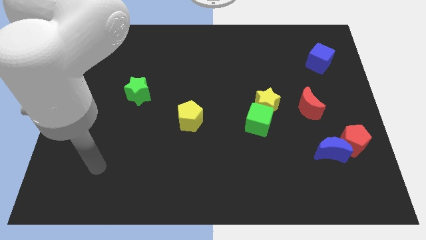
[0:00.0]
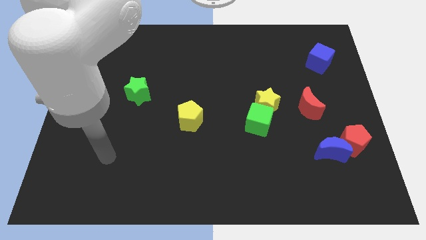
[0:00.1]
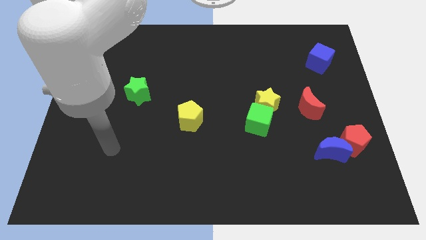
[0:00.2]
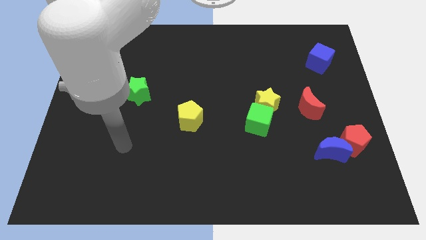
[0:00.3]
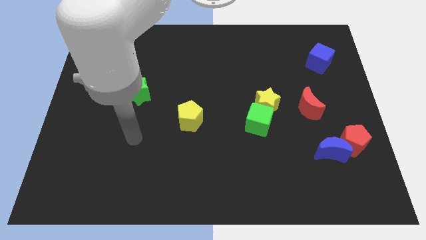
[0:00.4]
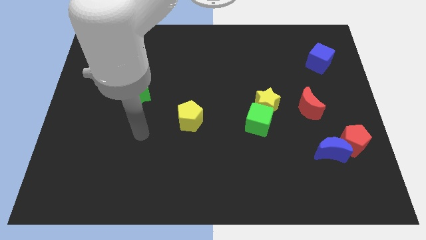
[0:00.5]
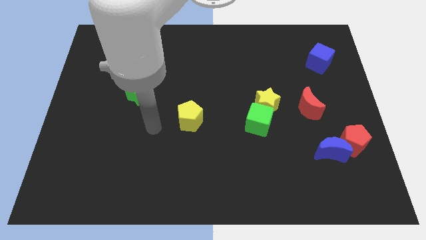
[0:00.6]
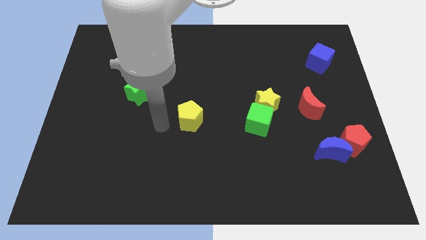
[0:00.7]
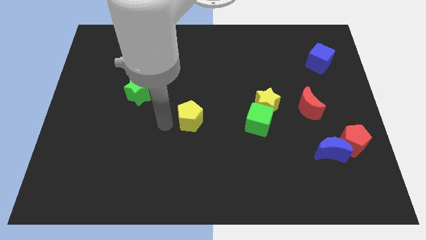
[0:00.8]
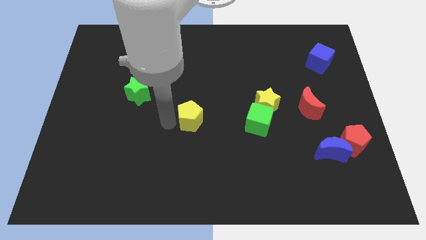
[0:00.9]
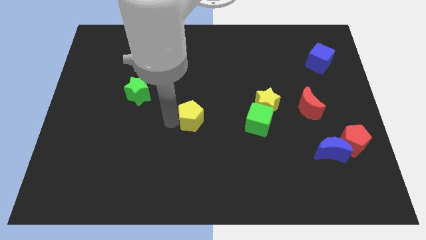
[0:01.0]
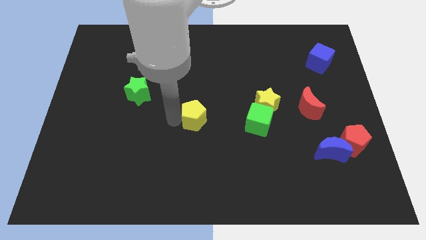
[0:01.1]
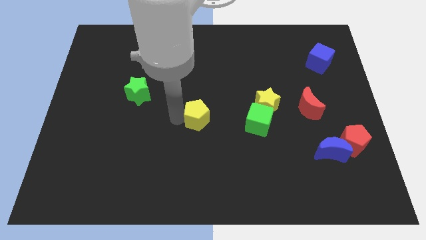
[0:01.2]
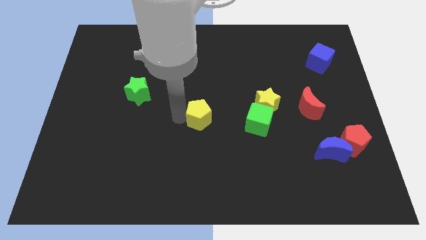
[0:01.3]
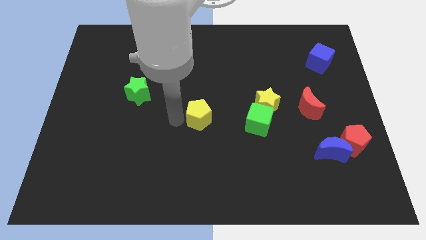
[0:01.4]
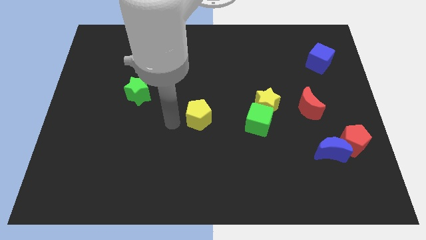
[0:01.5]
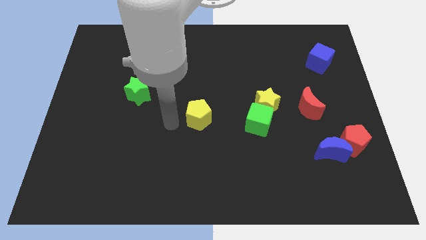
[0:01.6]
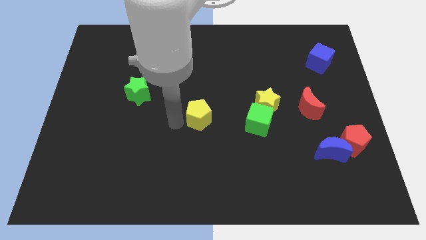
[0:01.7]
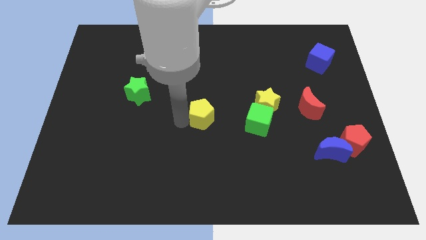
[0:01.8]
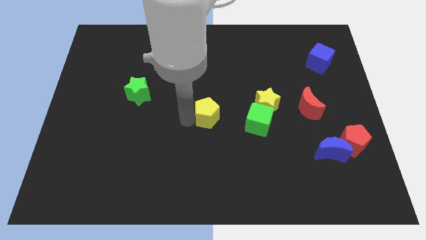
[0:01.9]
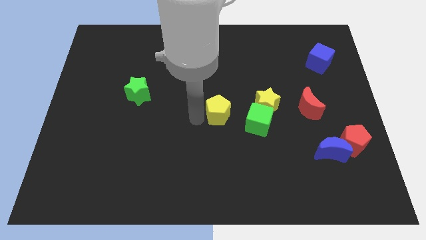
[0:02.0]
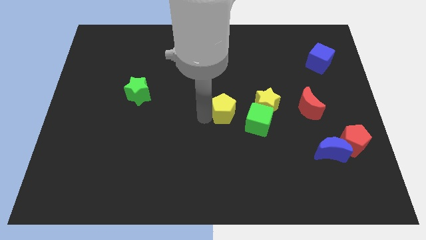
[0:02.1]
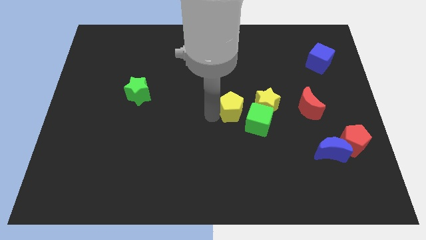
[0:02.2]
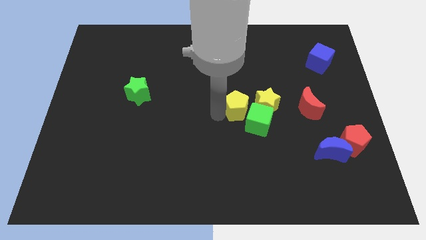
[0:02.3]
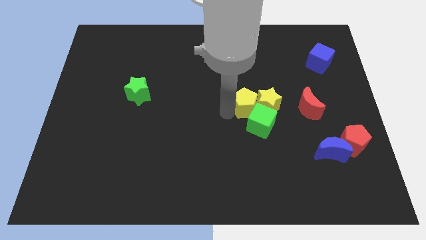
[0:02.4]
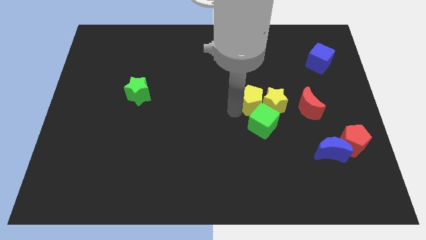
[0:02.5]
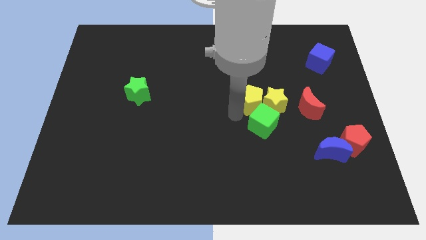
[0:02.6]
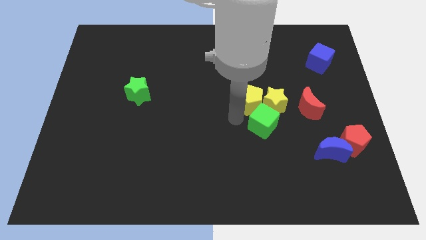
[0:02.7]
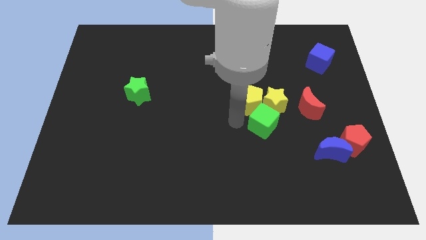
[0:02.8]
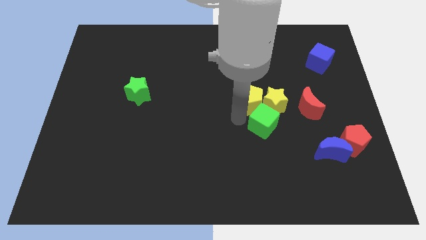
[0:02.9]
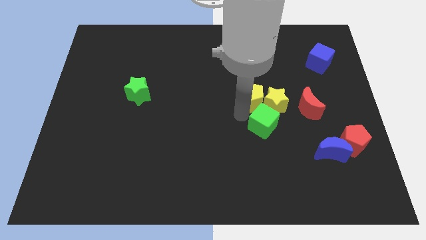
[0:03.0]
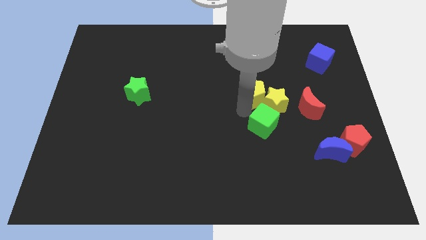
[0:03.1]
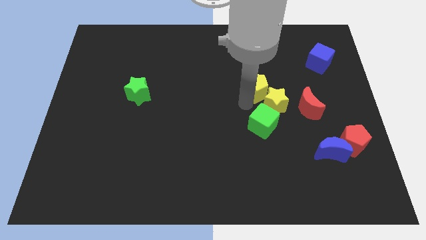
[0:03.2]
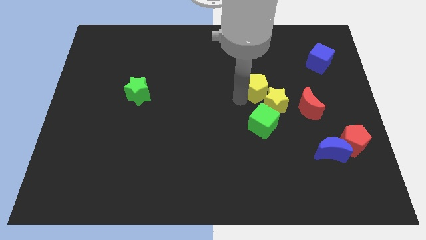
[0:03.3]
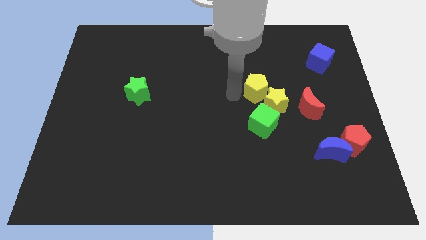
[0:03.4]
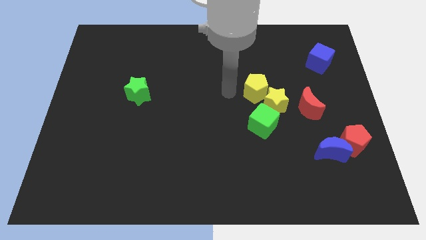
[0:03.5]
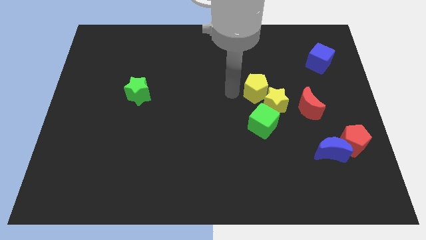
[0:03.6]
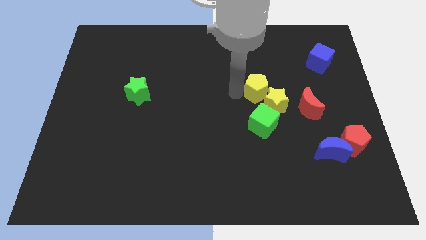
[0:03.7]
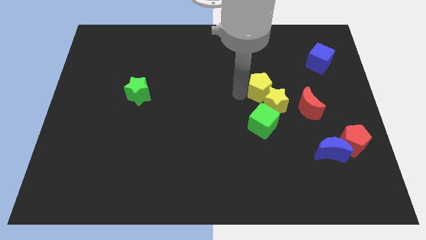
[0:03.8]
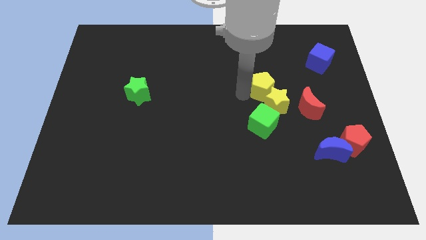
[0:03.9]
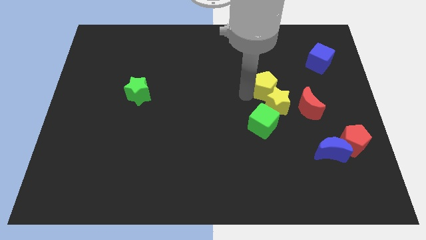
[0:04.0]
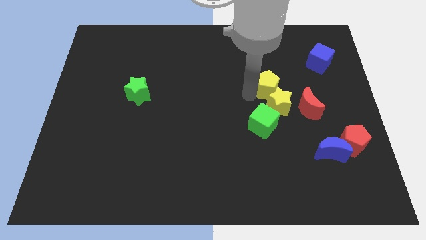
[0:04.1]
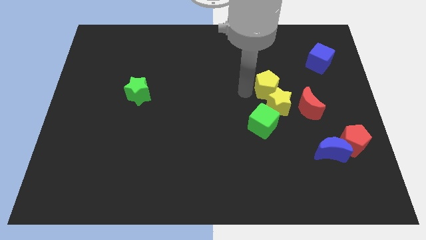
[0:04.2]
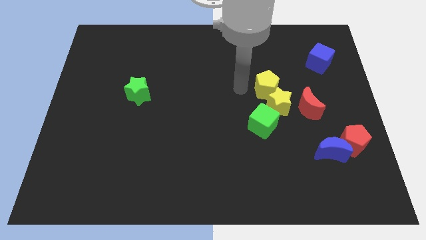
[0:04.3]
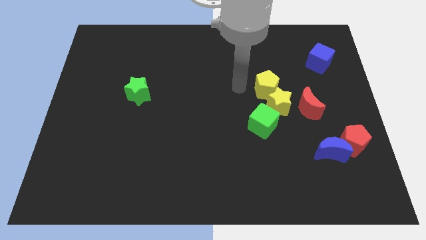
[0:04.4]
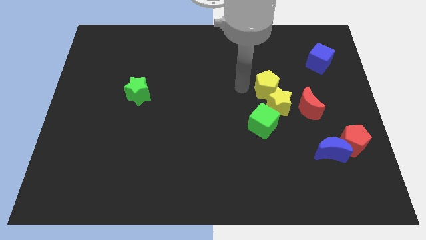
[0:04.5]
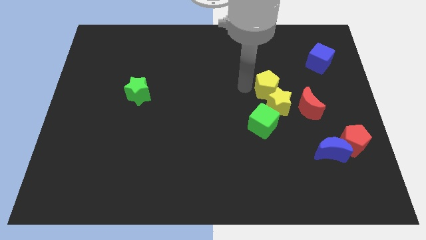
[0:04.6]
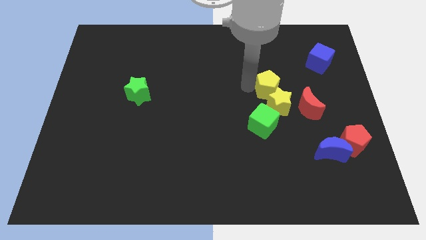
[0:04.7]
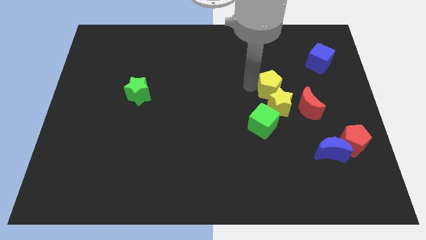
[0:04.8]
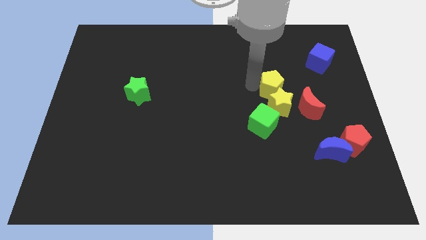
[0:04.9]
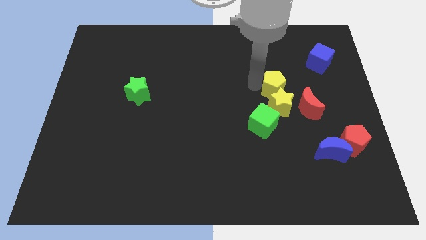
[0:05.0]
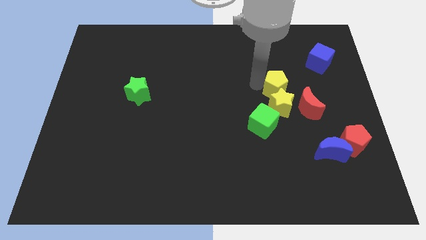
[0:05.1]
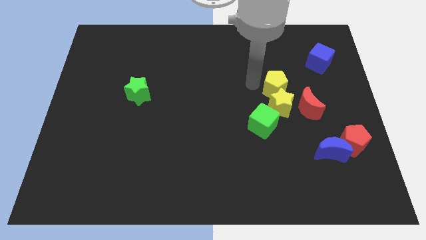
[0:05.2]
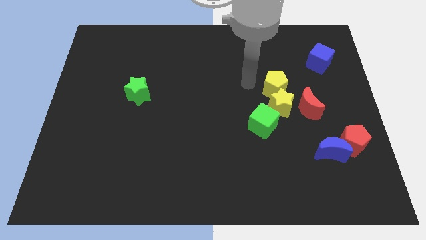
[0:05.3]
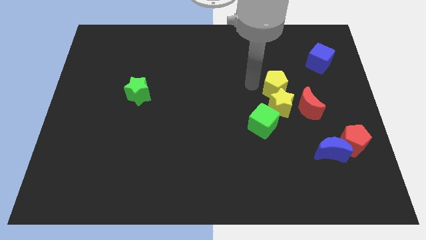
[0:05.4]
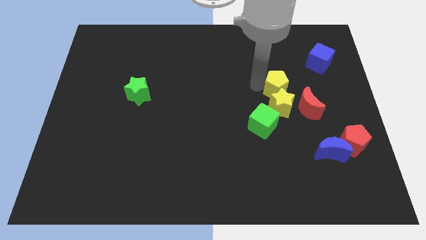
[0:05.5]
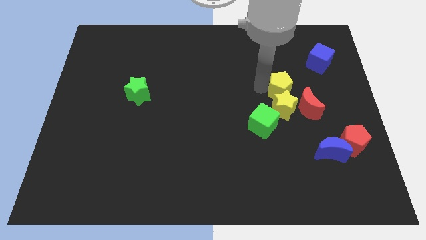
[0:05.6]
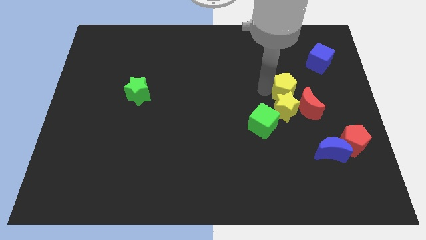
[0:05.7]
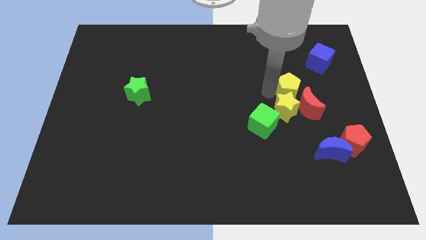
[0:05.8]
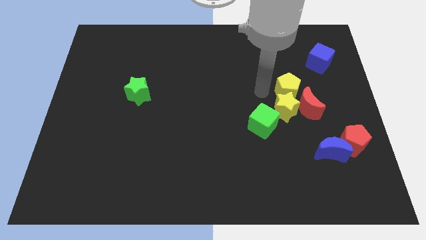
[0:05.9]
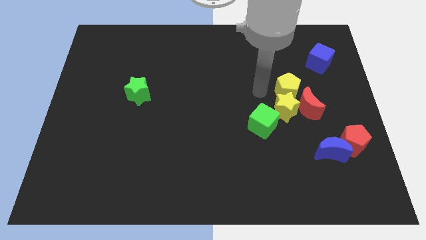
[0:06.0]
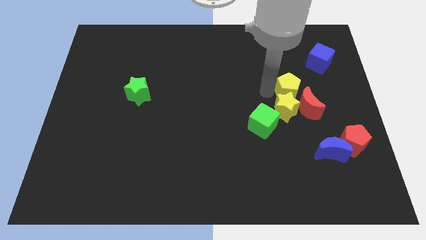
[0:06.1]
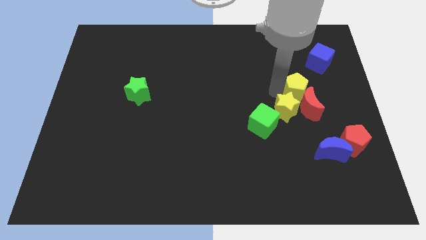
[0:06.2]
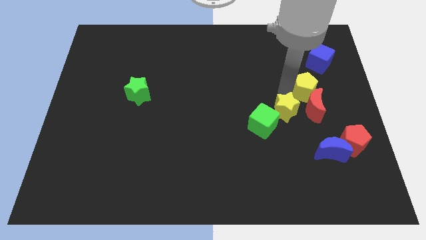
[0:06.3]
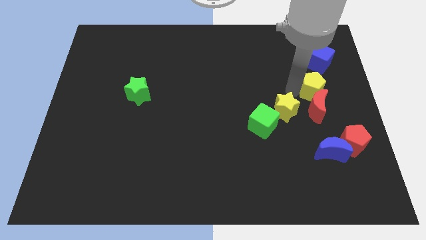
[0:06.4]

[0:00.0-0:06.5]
slide the yellow pentagon diagonally up and to the right of the red moon

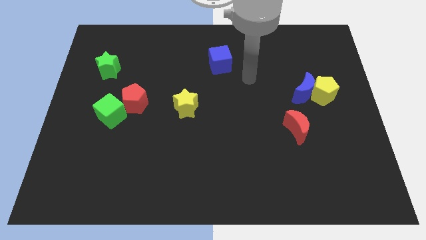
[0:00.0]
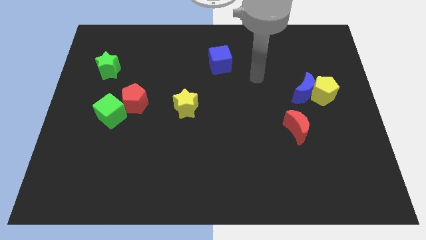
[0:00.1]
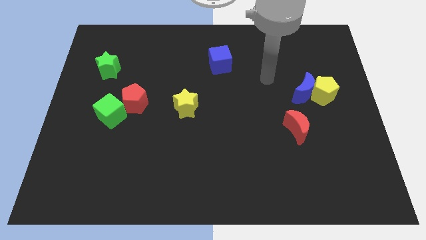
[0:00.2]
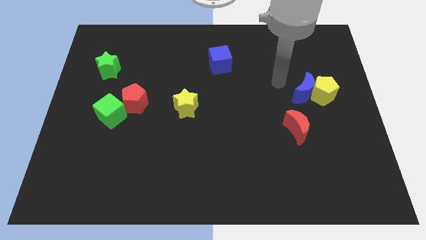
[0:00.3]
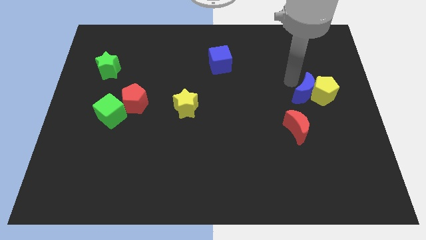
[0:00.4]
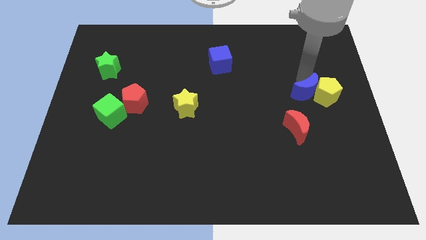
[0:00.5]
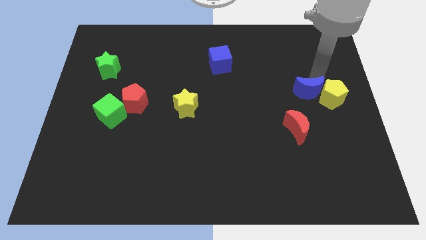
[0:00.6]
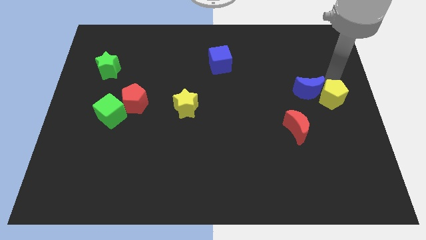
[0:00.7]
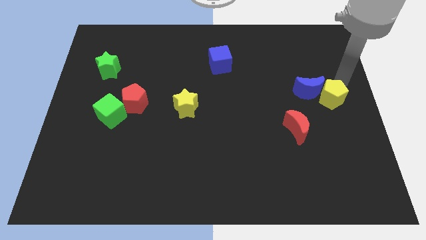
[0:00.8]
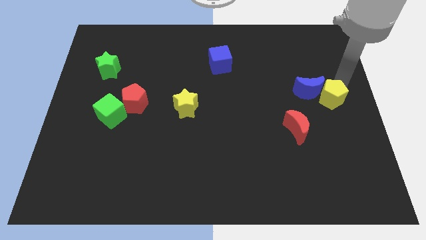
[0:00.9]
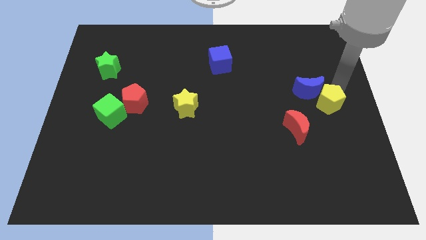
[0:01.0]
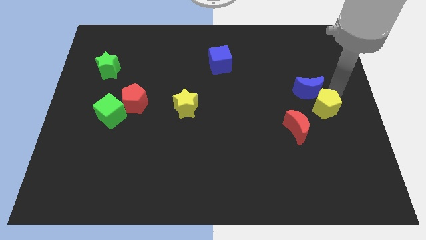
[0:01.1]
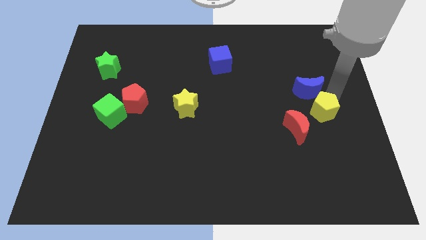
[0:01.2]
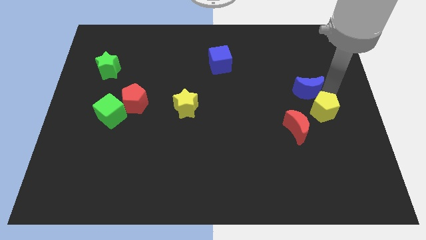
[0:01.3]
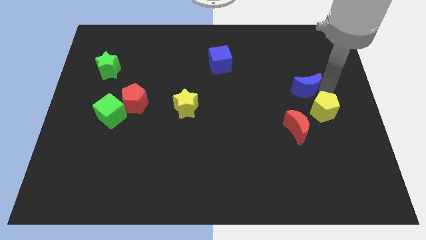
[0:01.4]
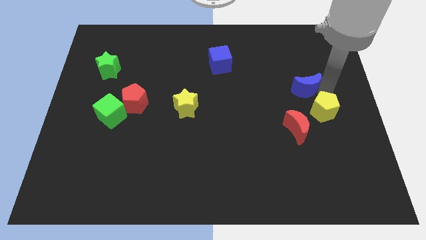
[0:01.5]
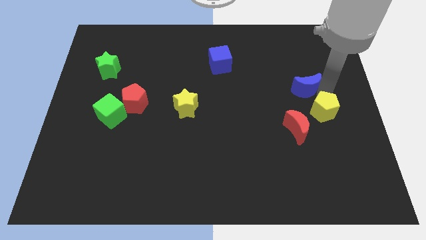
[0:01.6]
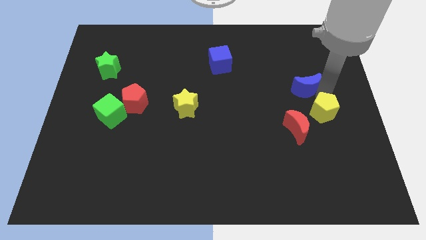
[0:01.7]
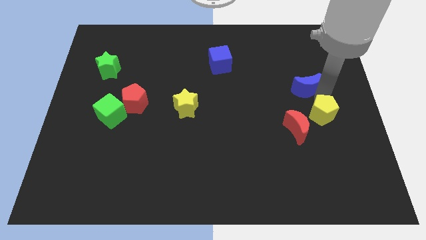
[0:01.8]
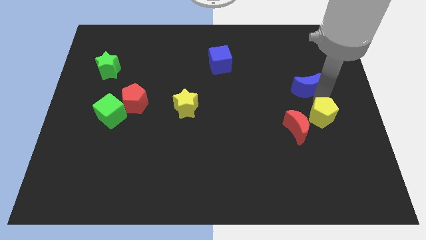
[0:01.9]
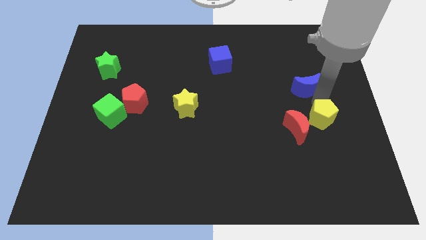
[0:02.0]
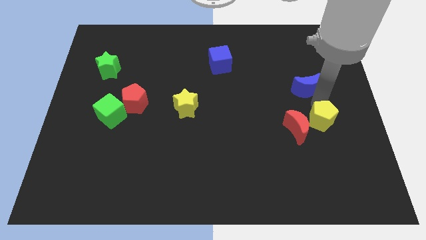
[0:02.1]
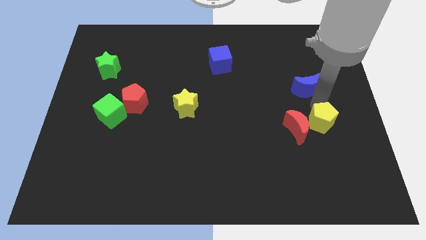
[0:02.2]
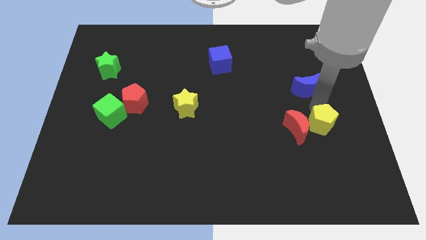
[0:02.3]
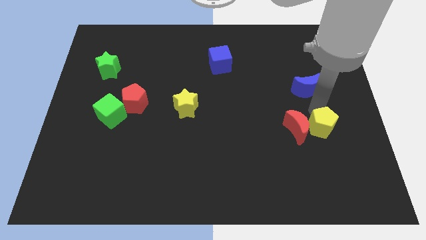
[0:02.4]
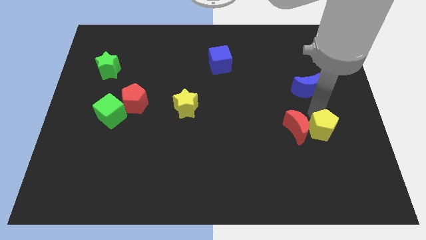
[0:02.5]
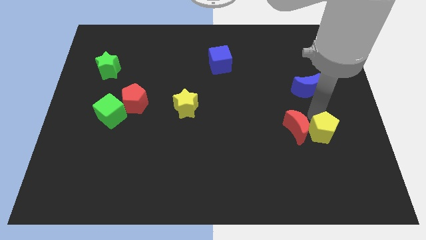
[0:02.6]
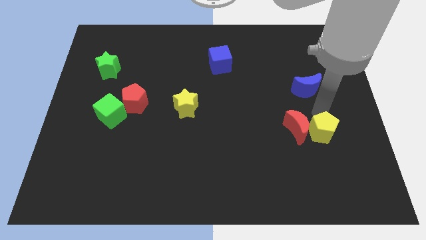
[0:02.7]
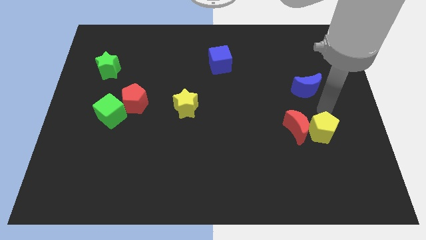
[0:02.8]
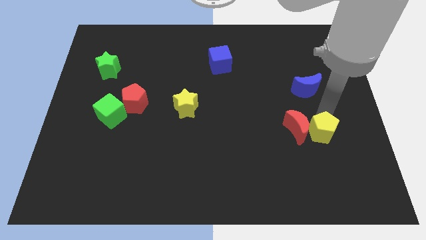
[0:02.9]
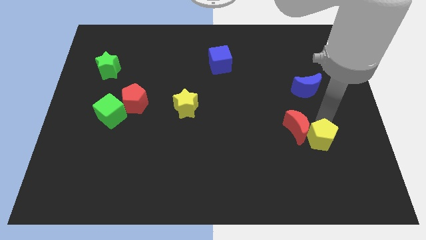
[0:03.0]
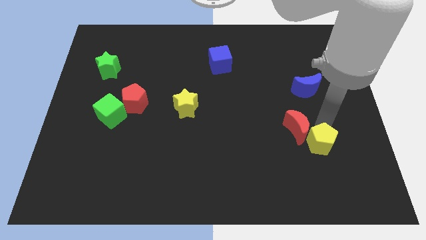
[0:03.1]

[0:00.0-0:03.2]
push the yellow pentagon to the bottom of the red moon
